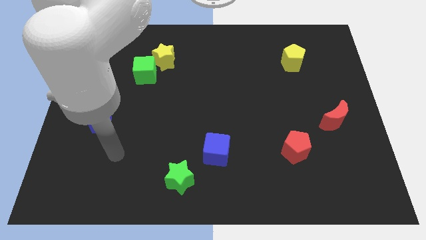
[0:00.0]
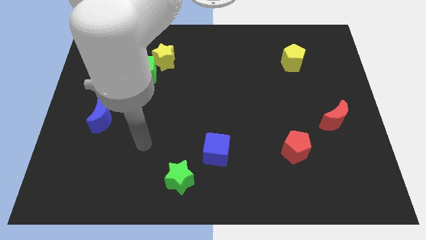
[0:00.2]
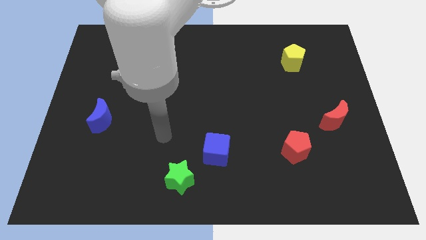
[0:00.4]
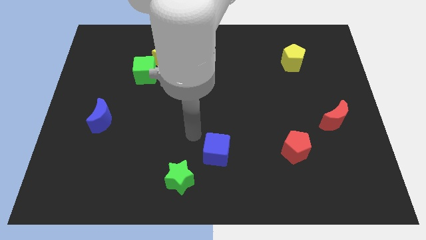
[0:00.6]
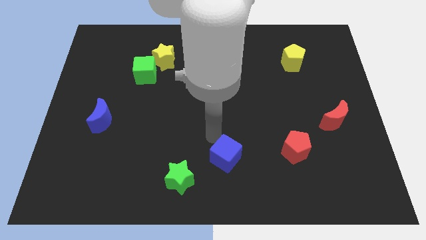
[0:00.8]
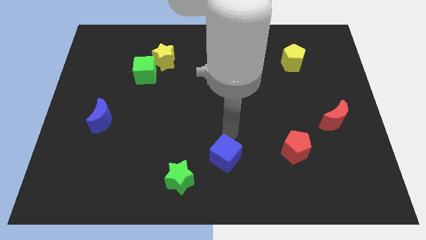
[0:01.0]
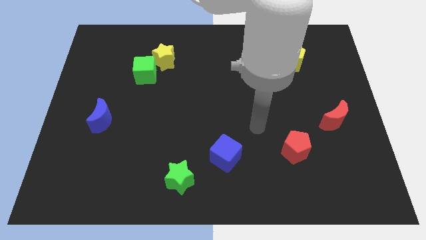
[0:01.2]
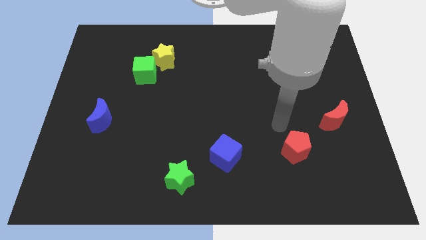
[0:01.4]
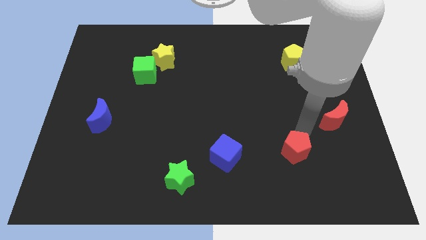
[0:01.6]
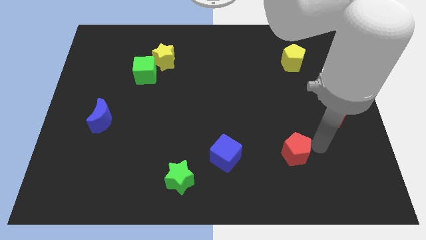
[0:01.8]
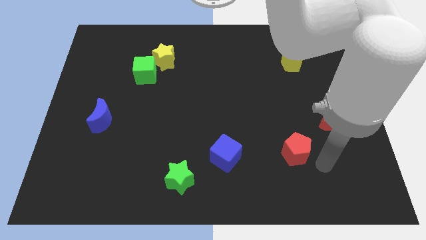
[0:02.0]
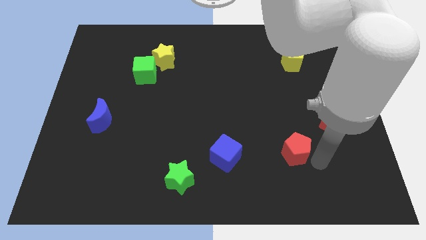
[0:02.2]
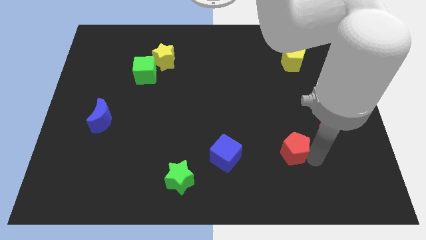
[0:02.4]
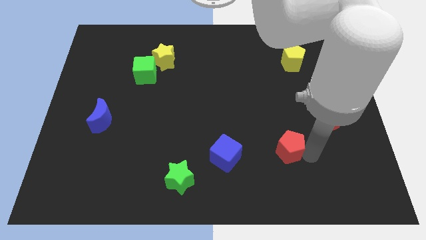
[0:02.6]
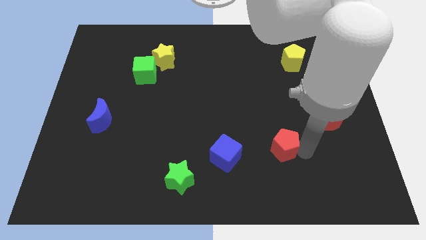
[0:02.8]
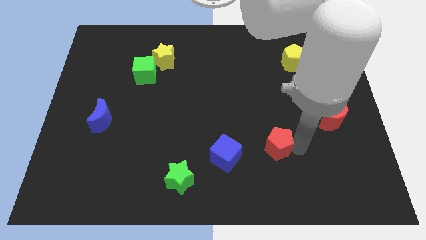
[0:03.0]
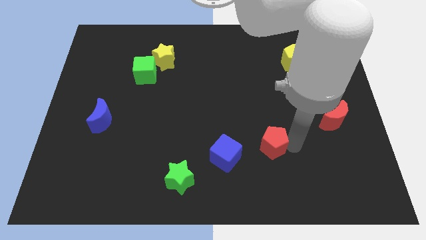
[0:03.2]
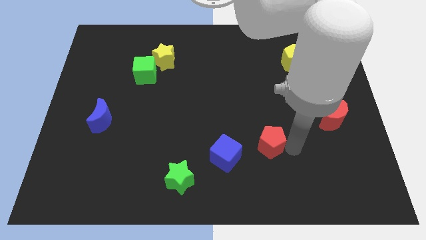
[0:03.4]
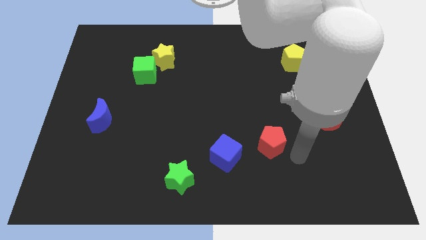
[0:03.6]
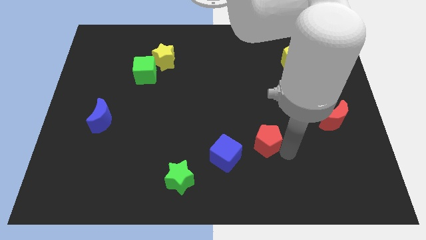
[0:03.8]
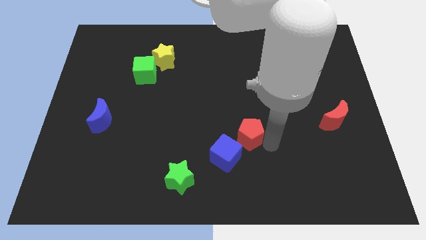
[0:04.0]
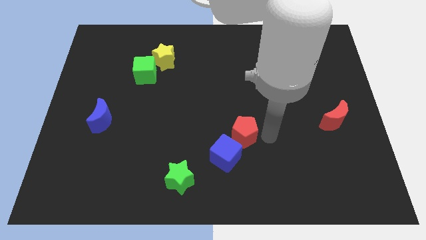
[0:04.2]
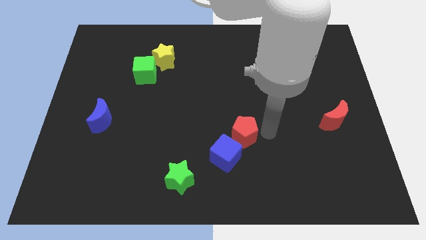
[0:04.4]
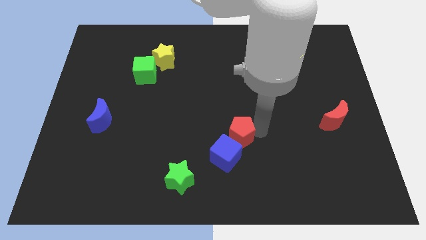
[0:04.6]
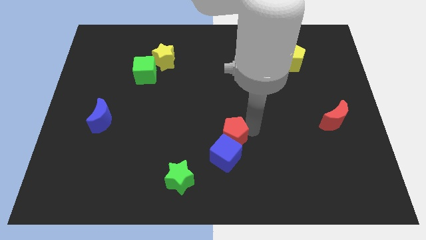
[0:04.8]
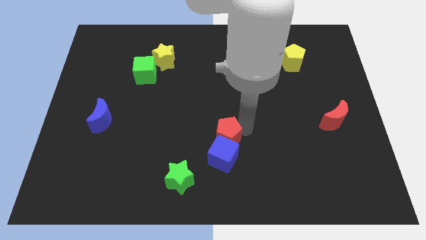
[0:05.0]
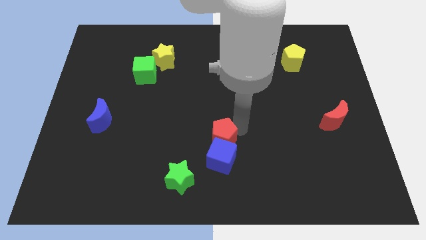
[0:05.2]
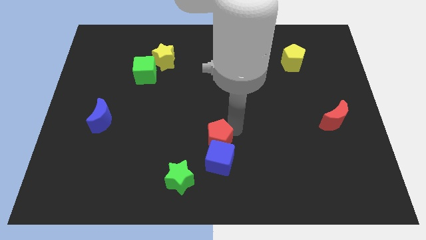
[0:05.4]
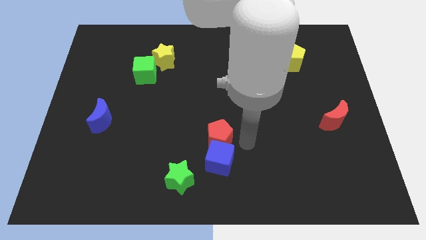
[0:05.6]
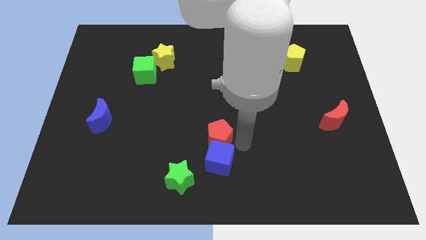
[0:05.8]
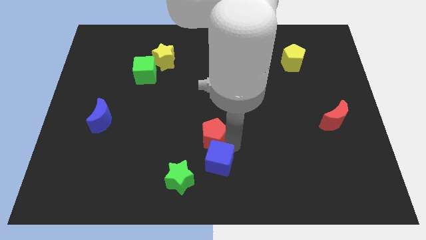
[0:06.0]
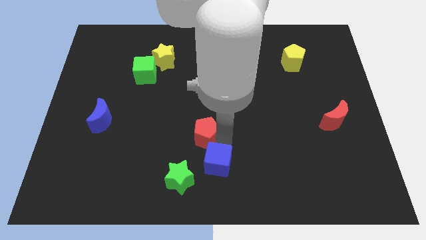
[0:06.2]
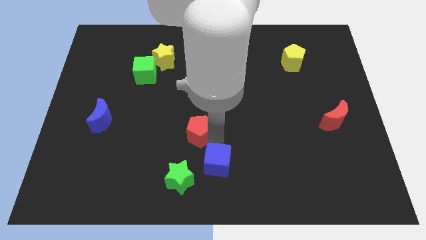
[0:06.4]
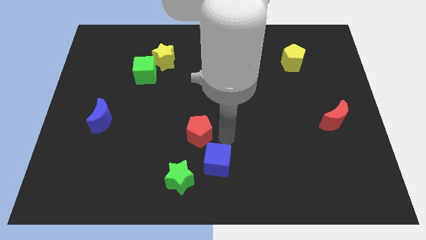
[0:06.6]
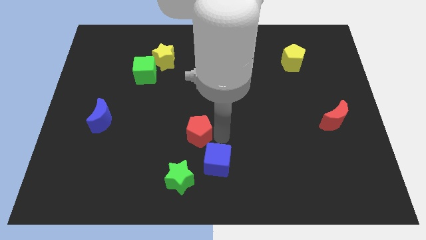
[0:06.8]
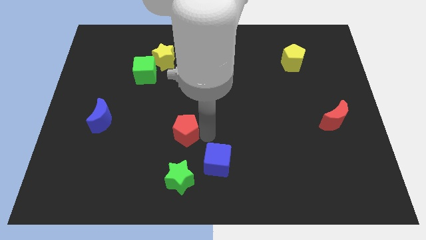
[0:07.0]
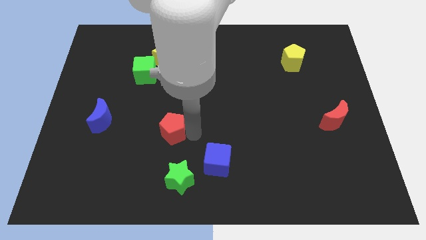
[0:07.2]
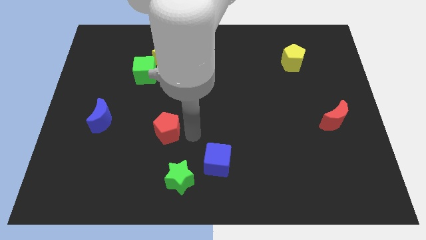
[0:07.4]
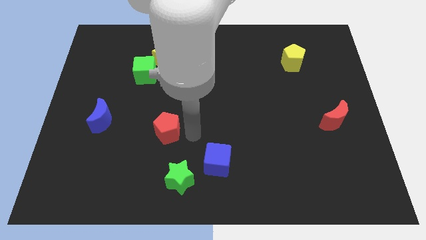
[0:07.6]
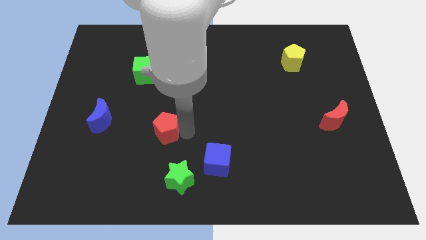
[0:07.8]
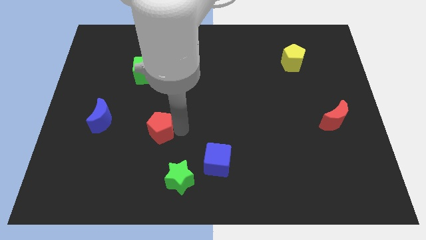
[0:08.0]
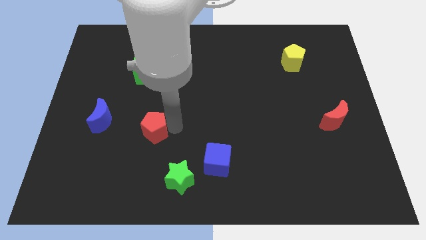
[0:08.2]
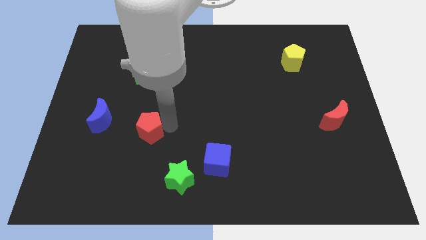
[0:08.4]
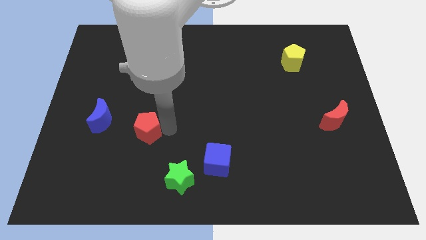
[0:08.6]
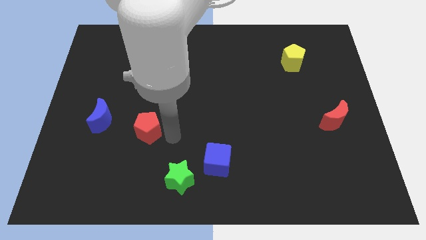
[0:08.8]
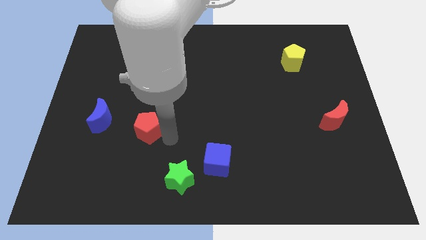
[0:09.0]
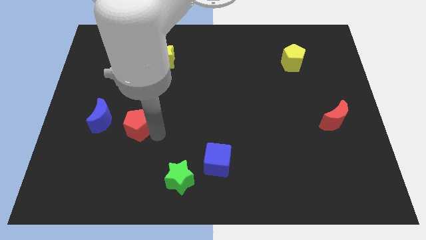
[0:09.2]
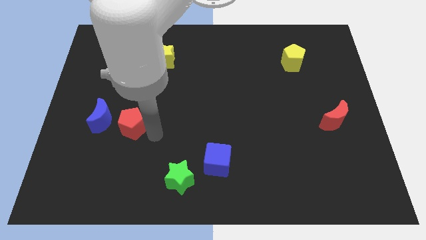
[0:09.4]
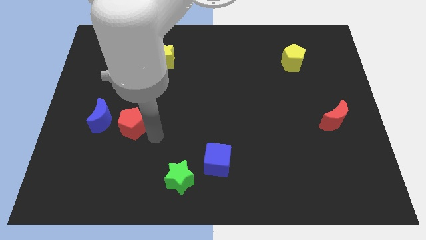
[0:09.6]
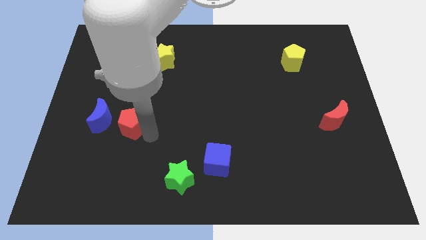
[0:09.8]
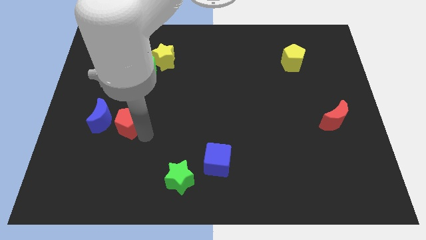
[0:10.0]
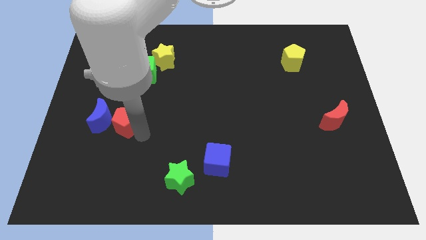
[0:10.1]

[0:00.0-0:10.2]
move the red pentagon close to the blue moon

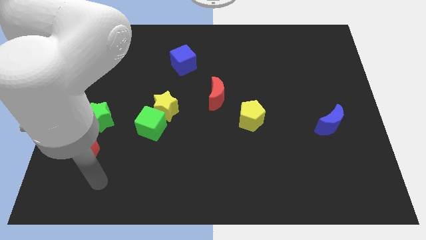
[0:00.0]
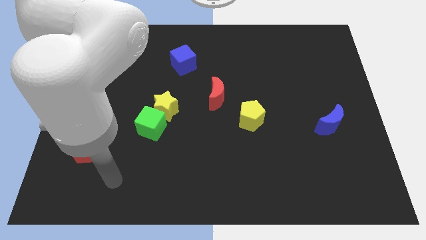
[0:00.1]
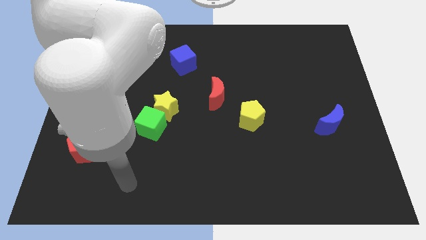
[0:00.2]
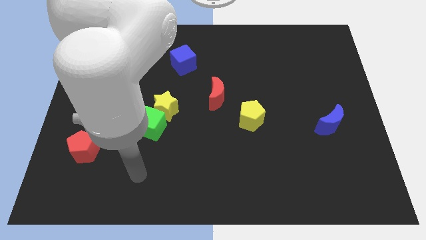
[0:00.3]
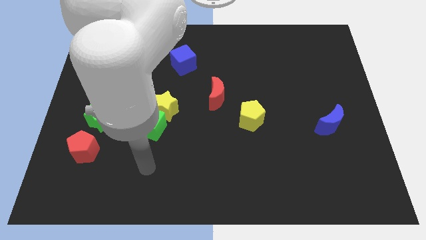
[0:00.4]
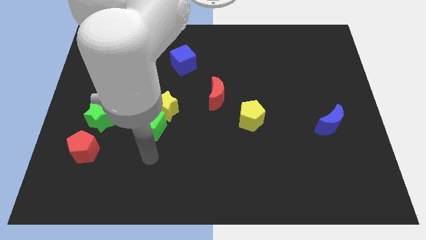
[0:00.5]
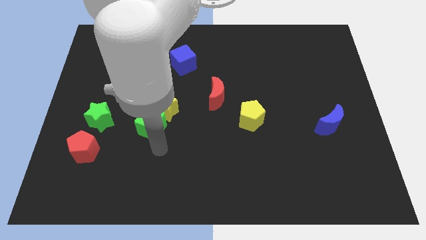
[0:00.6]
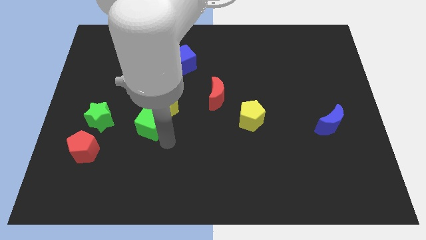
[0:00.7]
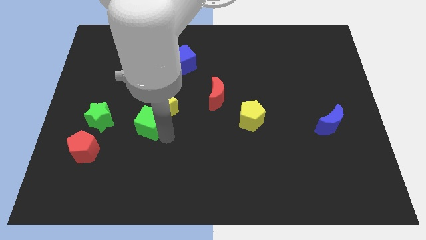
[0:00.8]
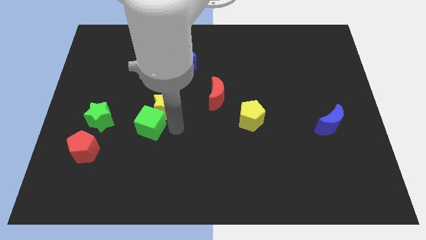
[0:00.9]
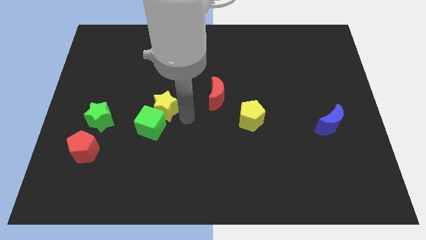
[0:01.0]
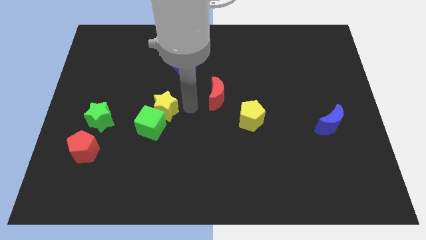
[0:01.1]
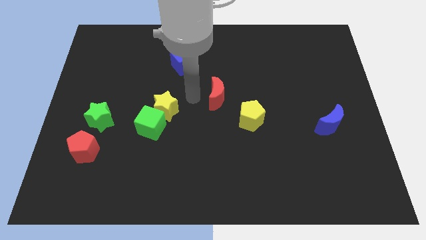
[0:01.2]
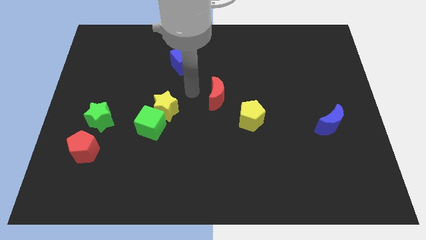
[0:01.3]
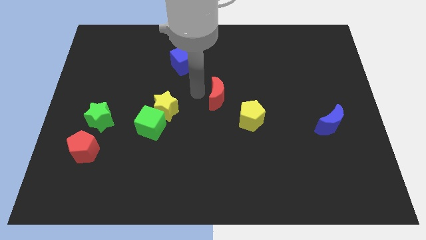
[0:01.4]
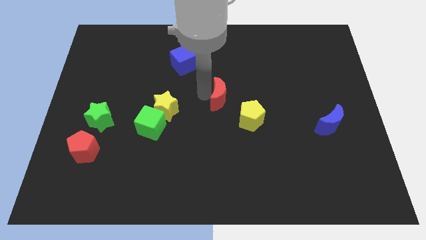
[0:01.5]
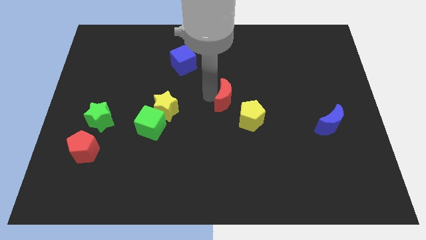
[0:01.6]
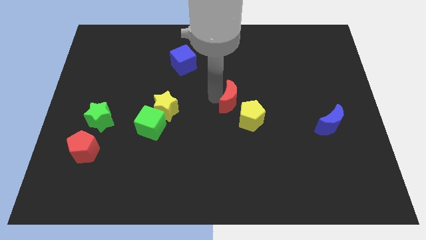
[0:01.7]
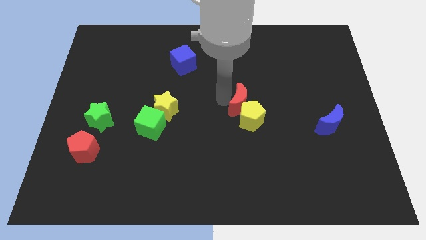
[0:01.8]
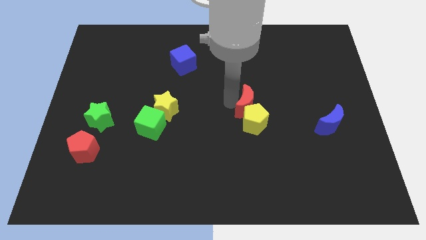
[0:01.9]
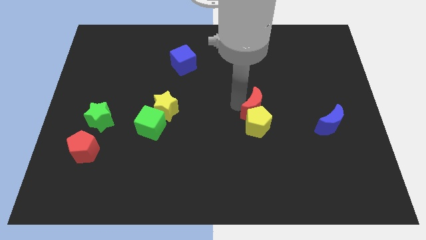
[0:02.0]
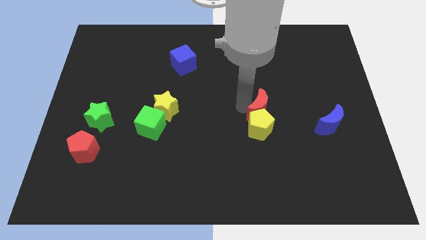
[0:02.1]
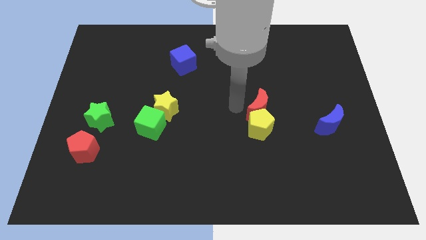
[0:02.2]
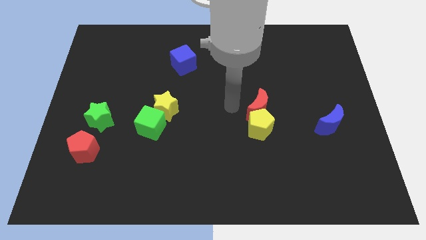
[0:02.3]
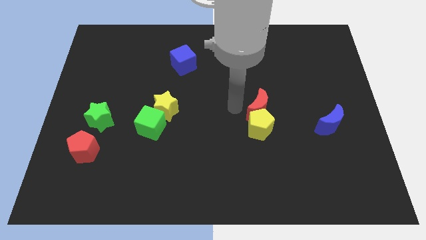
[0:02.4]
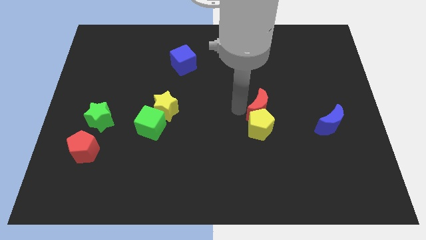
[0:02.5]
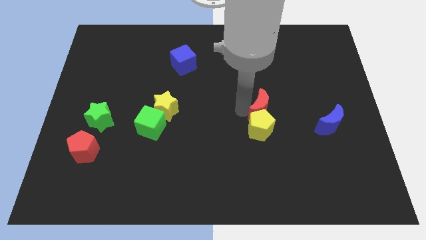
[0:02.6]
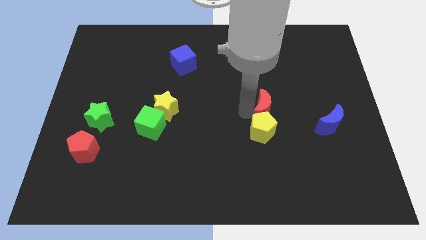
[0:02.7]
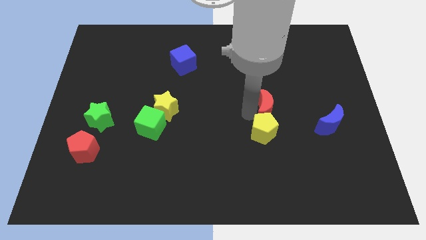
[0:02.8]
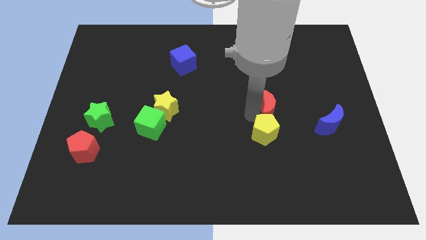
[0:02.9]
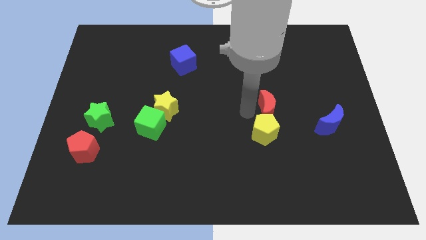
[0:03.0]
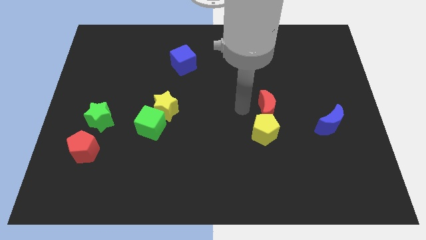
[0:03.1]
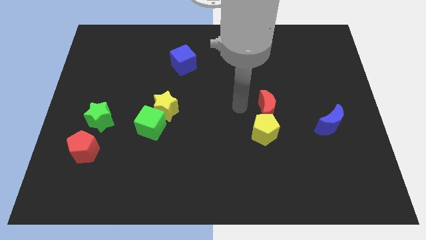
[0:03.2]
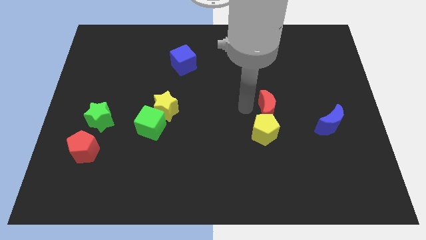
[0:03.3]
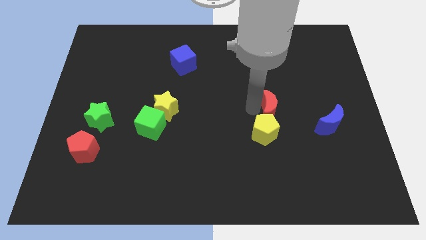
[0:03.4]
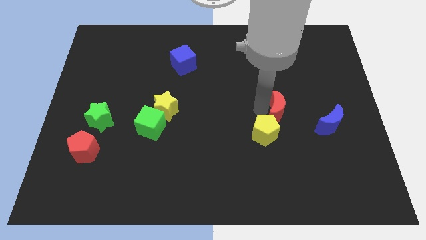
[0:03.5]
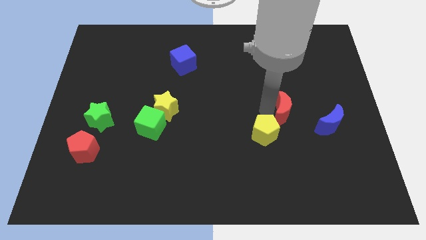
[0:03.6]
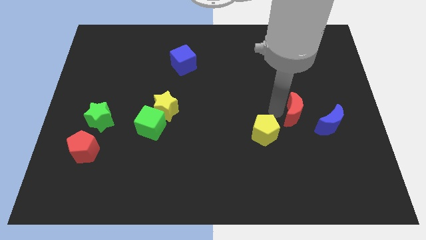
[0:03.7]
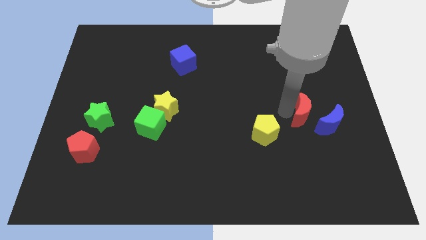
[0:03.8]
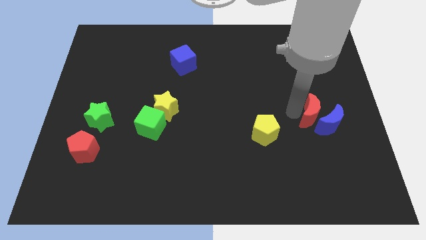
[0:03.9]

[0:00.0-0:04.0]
move the red moon towards the blue moon
